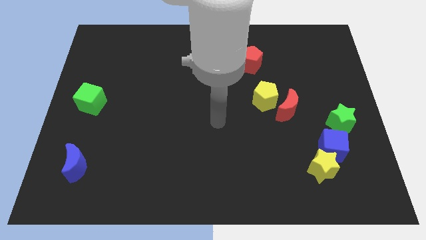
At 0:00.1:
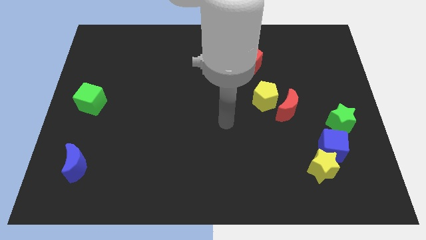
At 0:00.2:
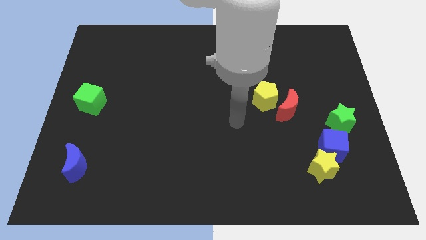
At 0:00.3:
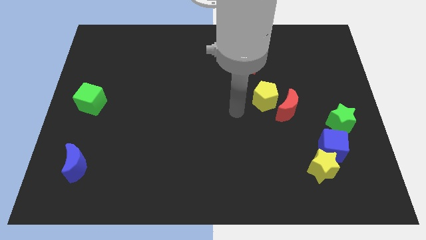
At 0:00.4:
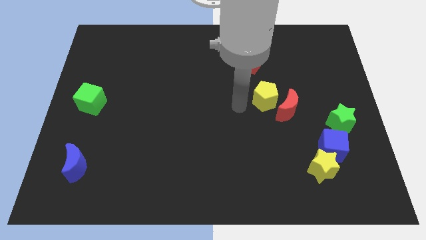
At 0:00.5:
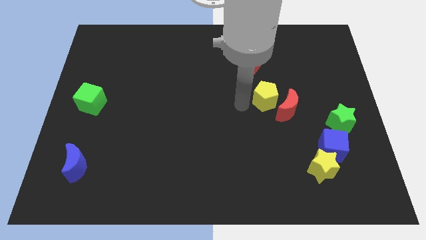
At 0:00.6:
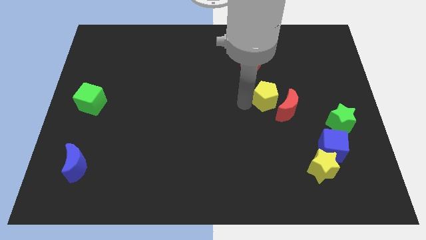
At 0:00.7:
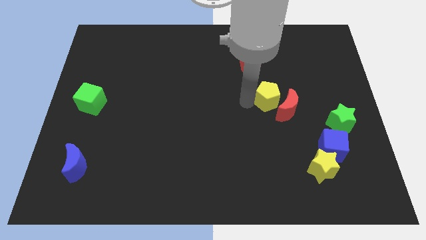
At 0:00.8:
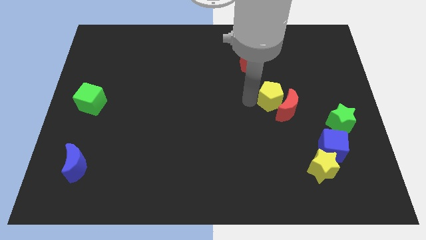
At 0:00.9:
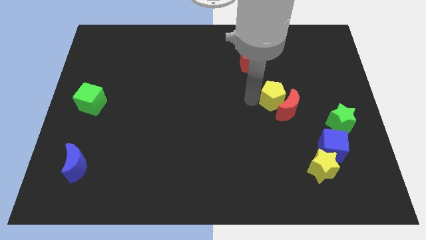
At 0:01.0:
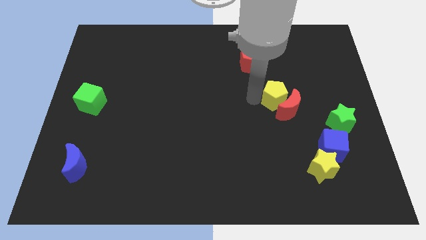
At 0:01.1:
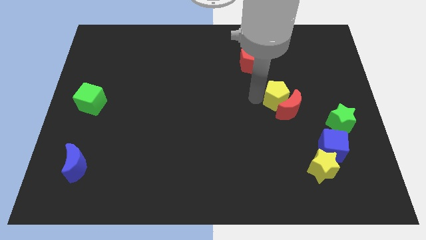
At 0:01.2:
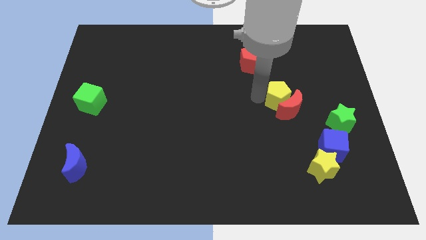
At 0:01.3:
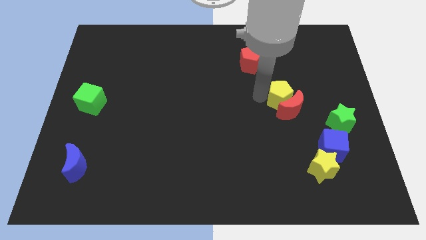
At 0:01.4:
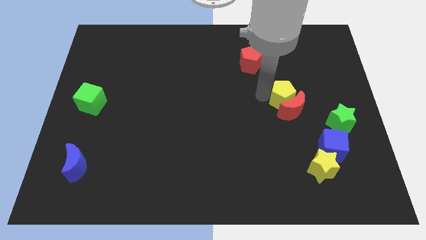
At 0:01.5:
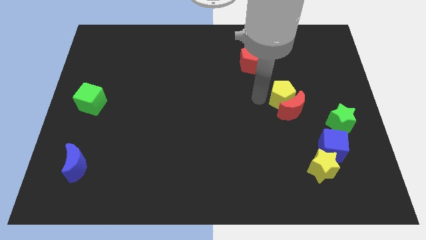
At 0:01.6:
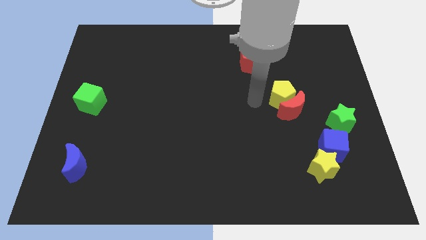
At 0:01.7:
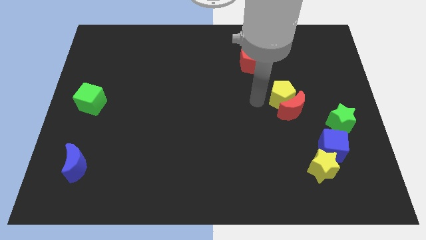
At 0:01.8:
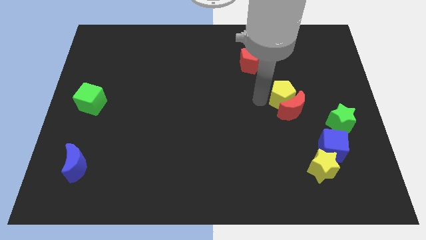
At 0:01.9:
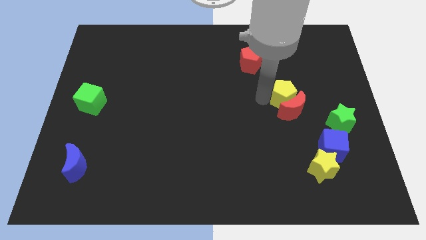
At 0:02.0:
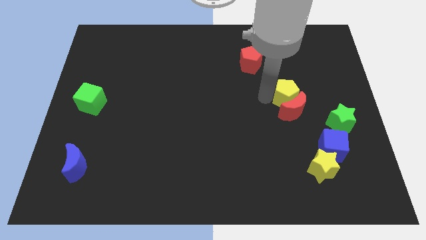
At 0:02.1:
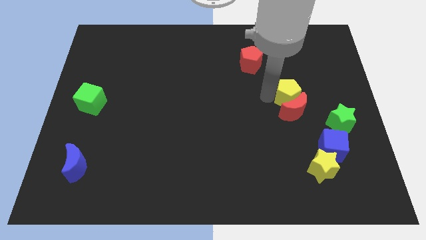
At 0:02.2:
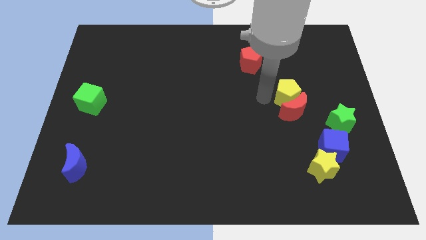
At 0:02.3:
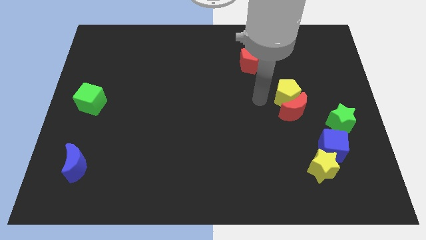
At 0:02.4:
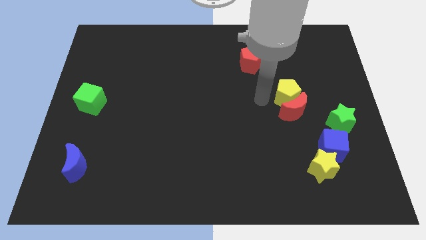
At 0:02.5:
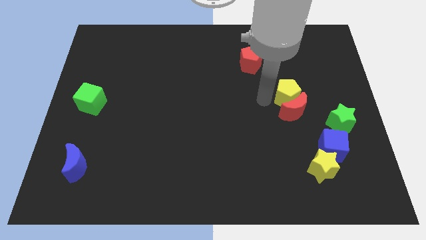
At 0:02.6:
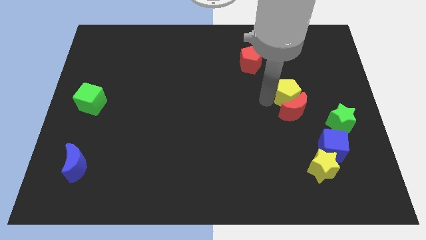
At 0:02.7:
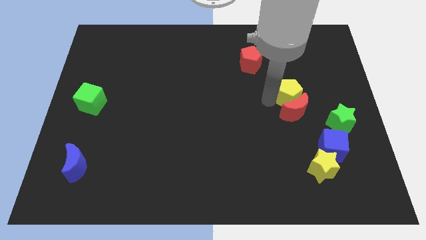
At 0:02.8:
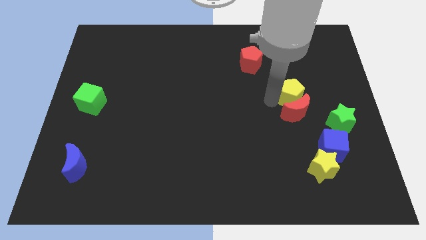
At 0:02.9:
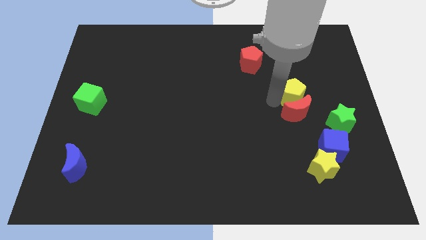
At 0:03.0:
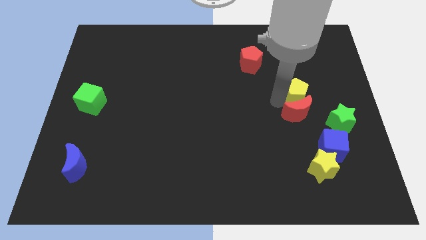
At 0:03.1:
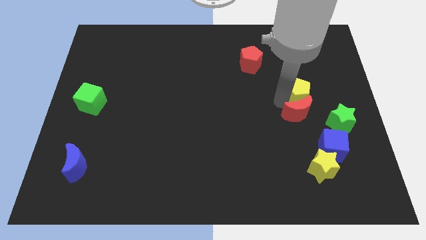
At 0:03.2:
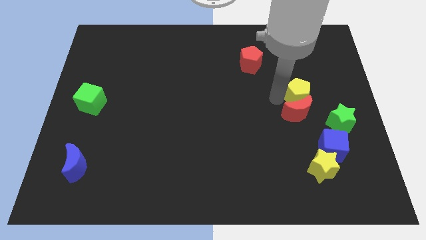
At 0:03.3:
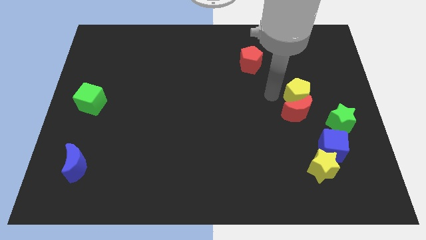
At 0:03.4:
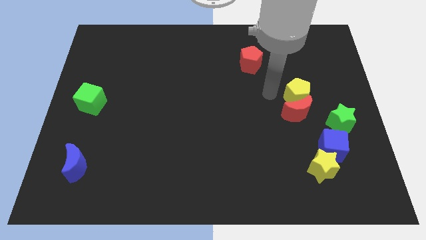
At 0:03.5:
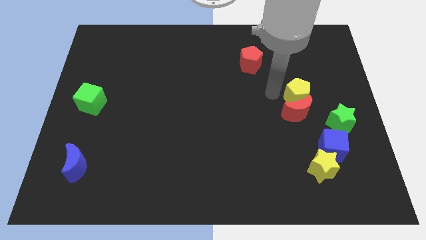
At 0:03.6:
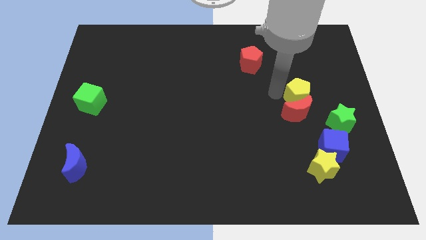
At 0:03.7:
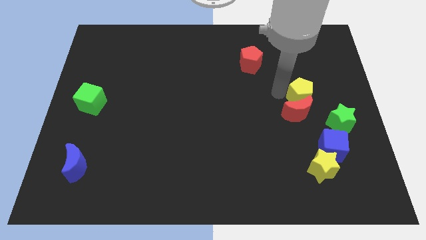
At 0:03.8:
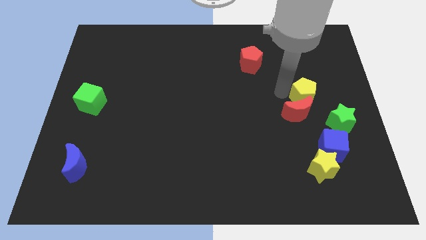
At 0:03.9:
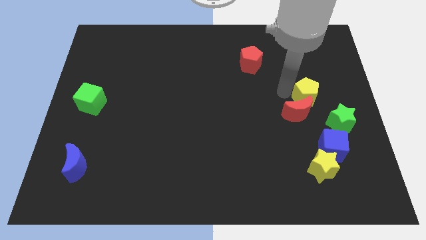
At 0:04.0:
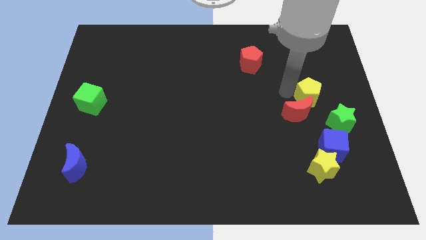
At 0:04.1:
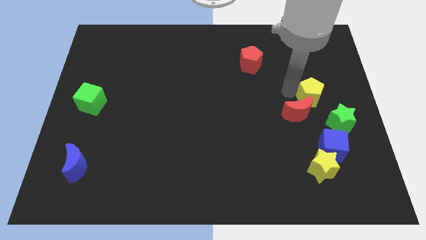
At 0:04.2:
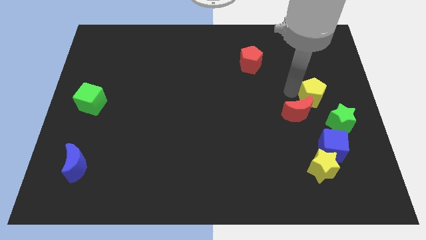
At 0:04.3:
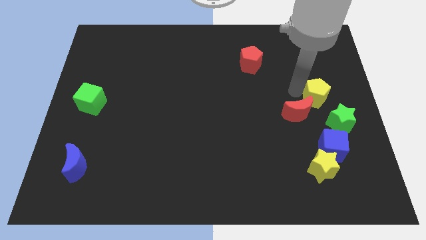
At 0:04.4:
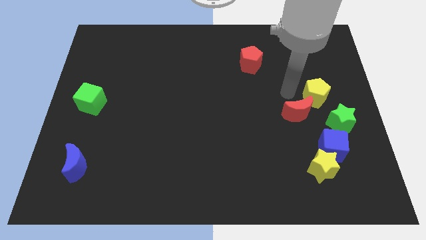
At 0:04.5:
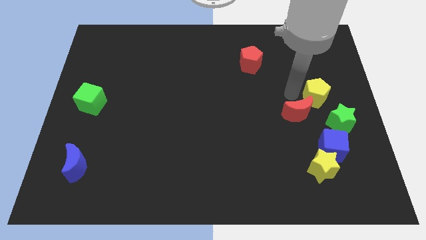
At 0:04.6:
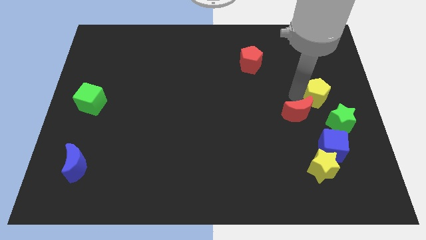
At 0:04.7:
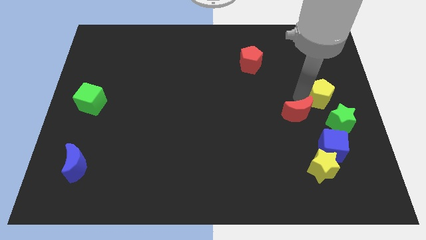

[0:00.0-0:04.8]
move the yellow pentagon to the right side of the board

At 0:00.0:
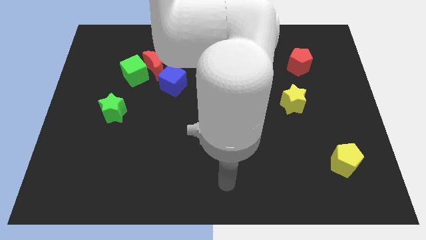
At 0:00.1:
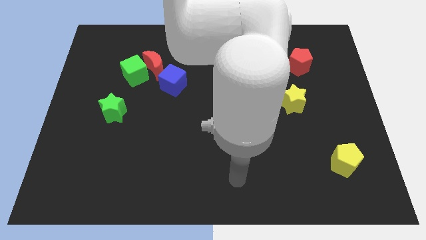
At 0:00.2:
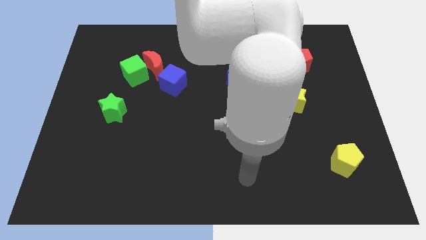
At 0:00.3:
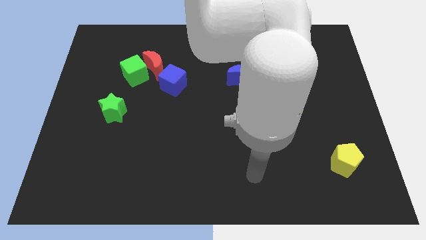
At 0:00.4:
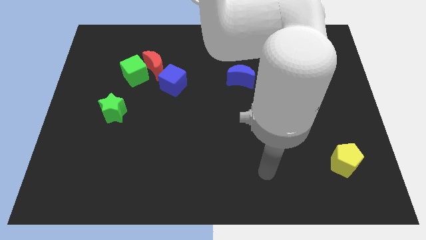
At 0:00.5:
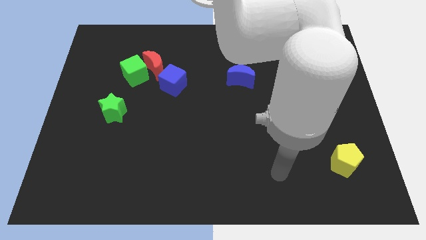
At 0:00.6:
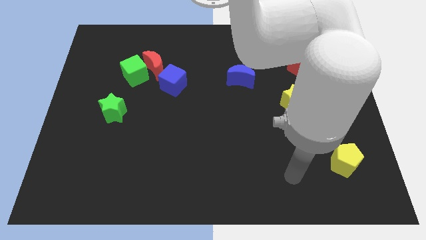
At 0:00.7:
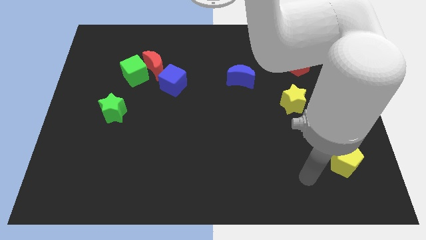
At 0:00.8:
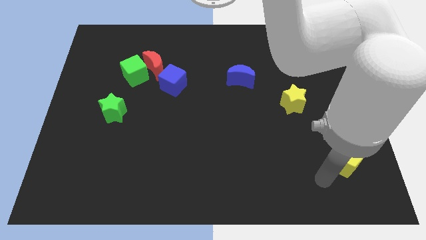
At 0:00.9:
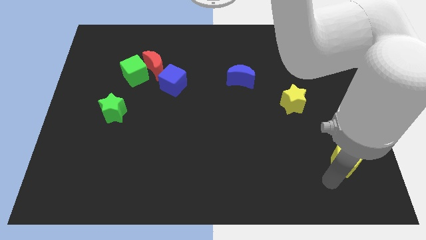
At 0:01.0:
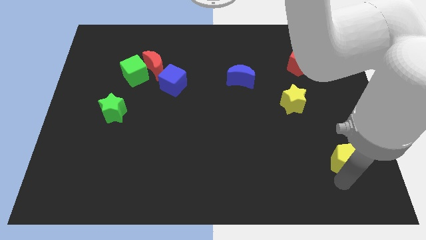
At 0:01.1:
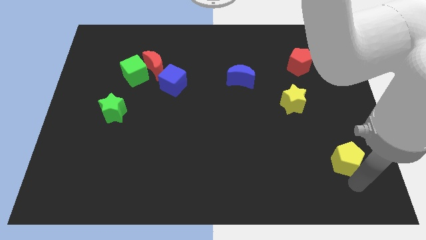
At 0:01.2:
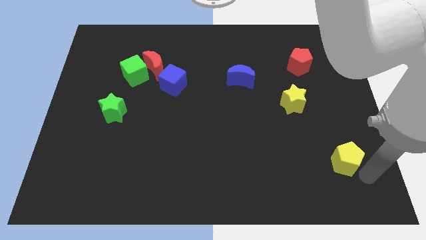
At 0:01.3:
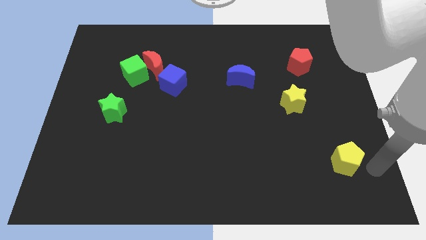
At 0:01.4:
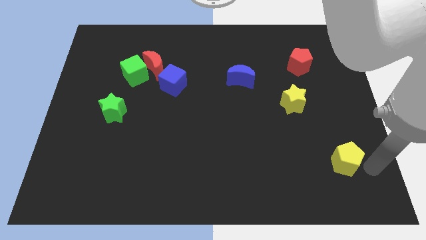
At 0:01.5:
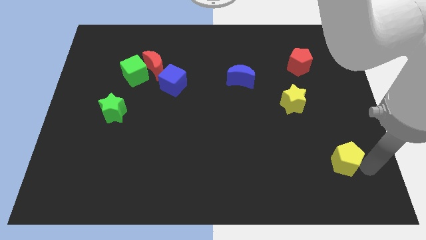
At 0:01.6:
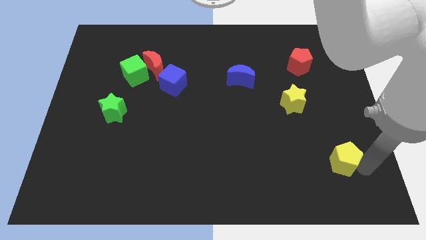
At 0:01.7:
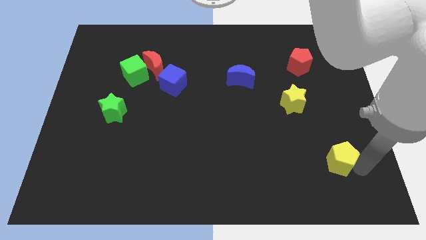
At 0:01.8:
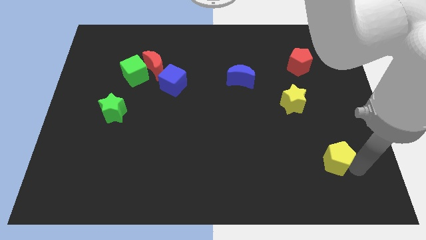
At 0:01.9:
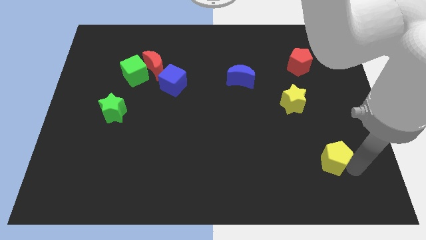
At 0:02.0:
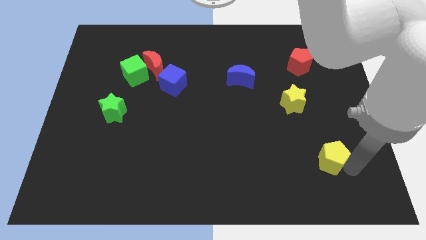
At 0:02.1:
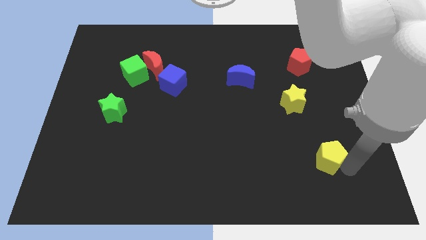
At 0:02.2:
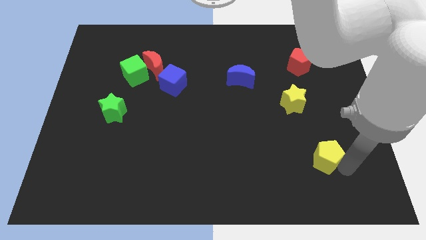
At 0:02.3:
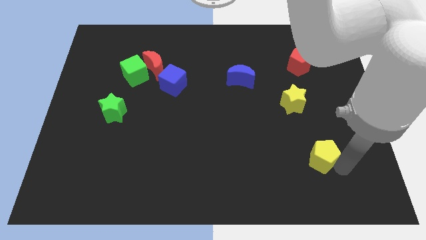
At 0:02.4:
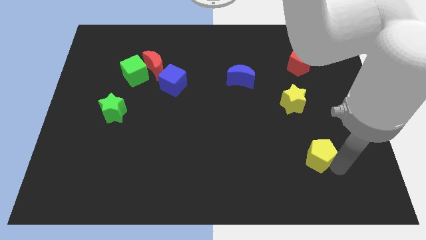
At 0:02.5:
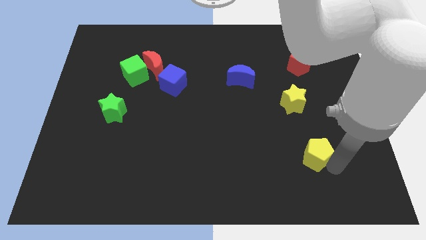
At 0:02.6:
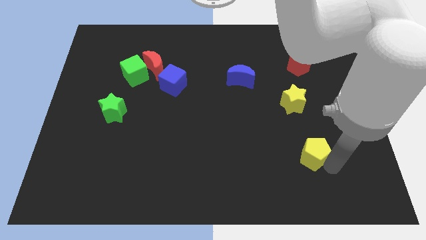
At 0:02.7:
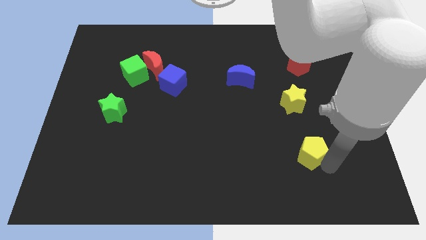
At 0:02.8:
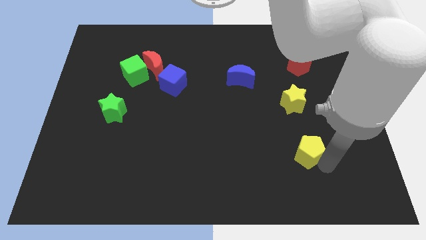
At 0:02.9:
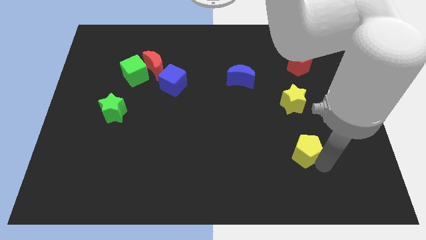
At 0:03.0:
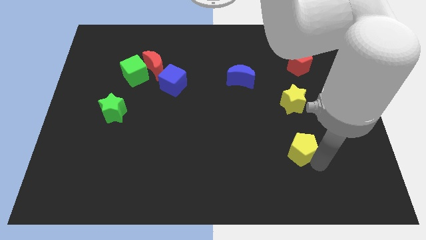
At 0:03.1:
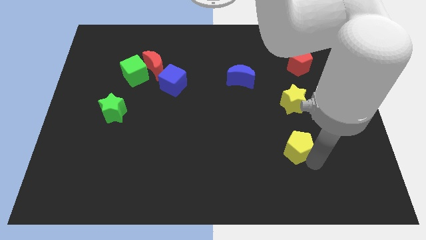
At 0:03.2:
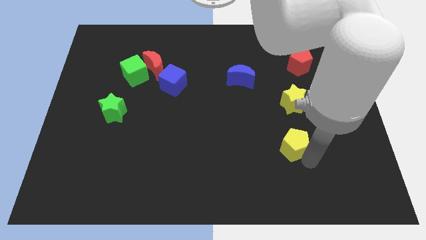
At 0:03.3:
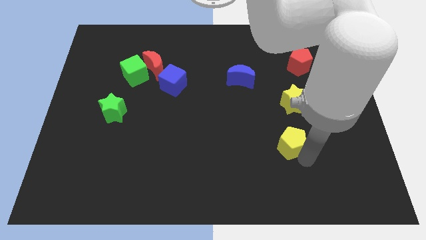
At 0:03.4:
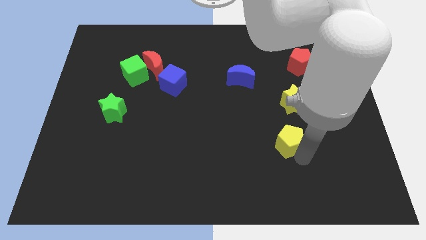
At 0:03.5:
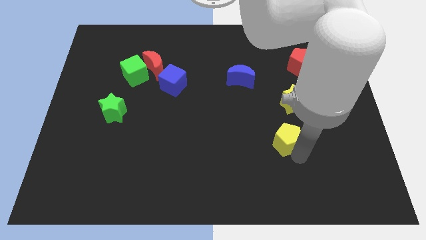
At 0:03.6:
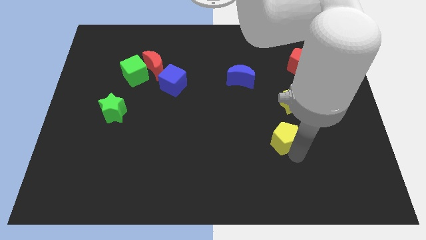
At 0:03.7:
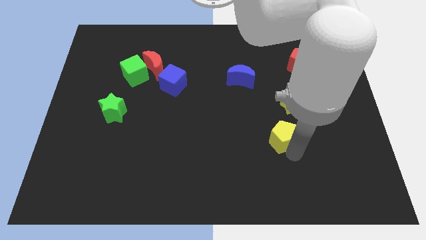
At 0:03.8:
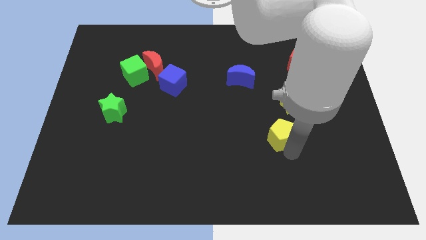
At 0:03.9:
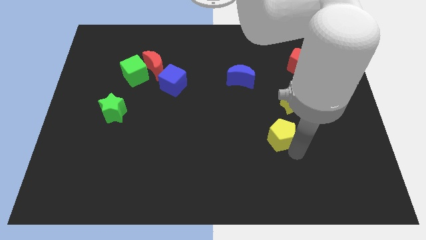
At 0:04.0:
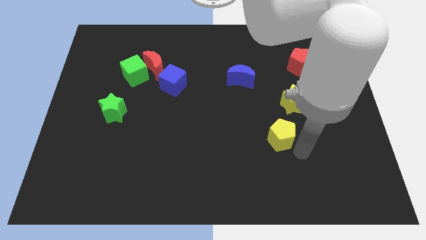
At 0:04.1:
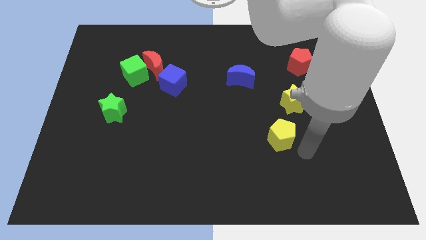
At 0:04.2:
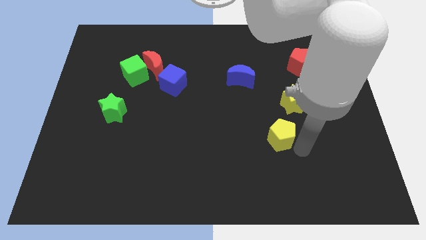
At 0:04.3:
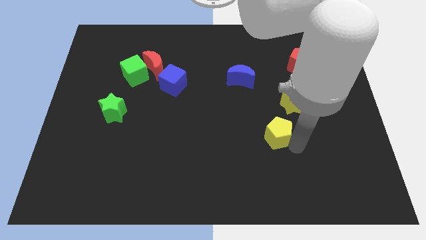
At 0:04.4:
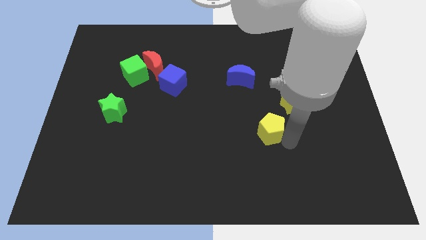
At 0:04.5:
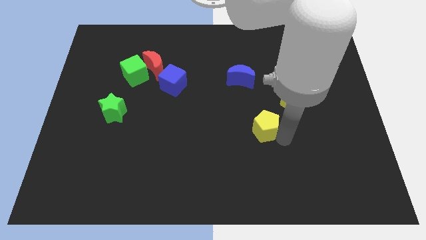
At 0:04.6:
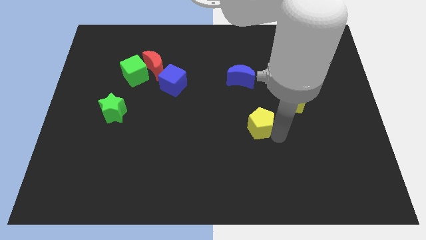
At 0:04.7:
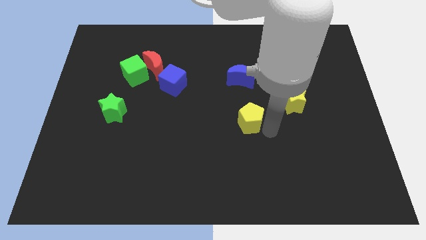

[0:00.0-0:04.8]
slide the yellow pentagon to the middle
